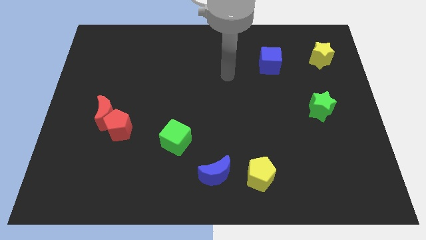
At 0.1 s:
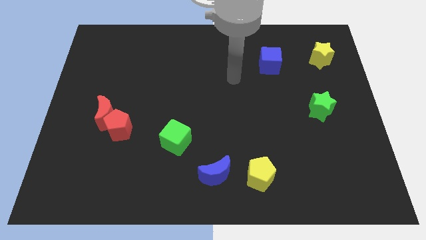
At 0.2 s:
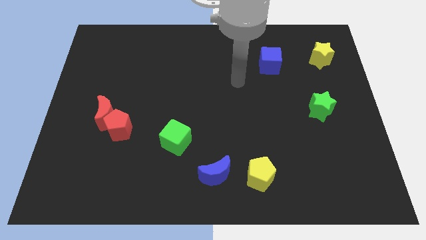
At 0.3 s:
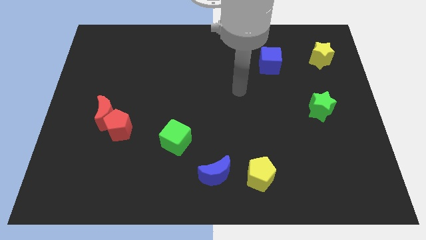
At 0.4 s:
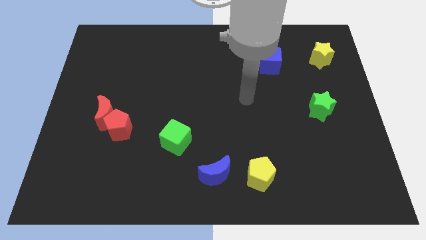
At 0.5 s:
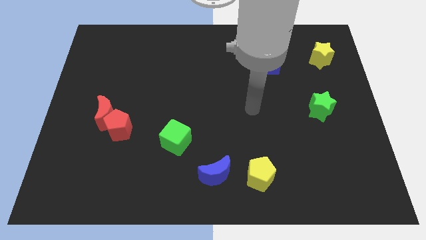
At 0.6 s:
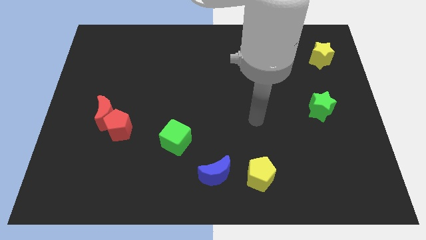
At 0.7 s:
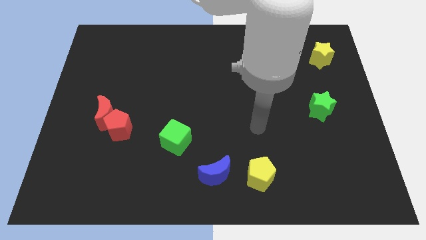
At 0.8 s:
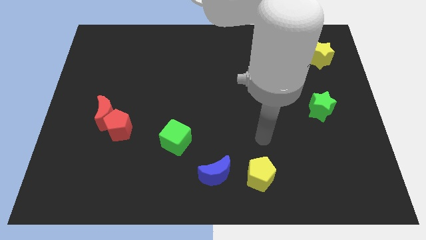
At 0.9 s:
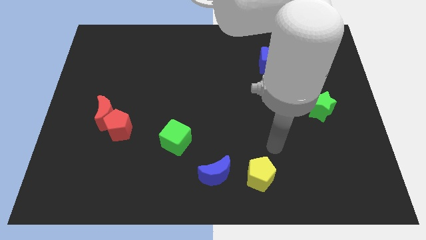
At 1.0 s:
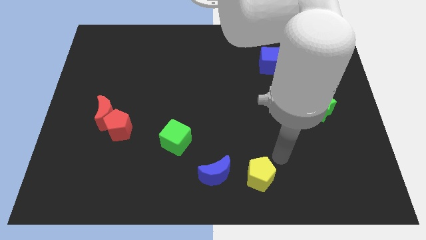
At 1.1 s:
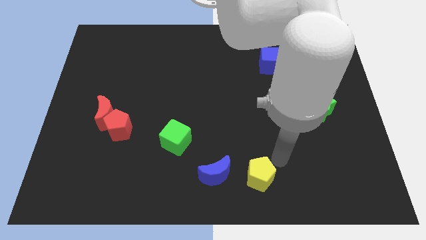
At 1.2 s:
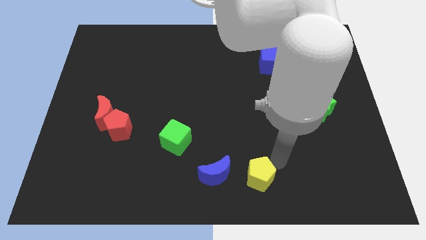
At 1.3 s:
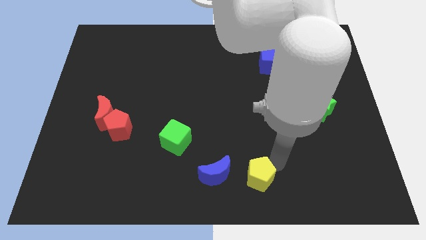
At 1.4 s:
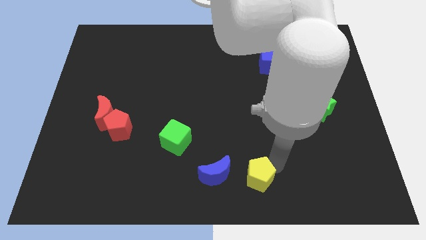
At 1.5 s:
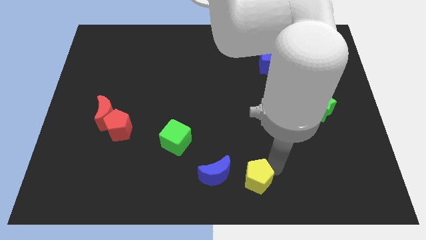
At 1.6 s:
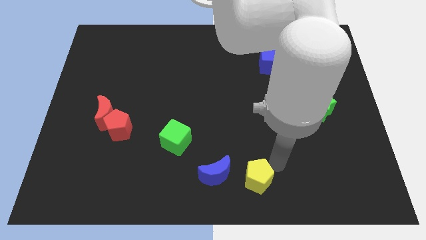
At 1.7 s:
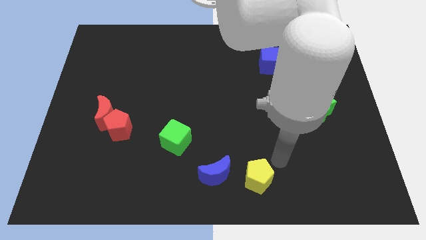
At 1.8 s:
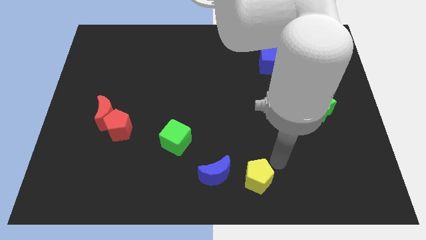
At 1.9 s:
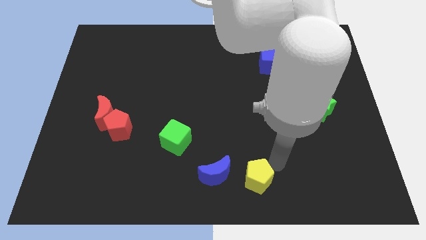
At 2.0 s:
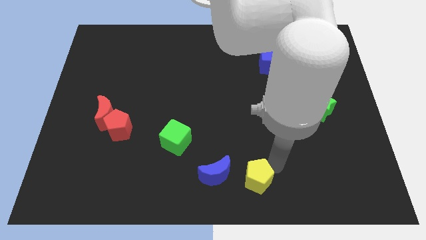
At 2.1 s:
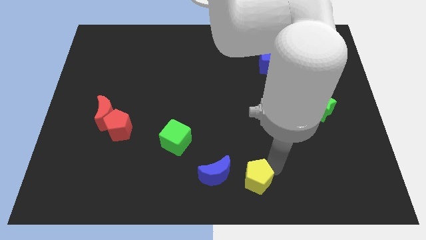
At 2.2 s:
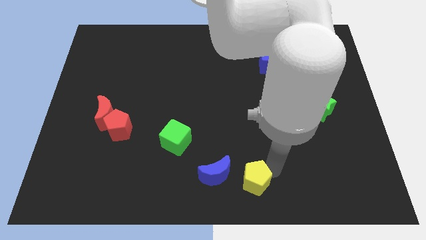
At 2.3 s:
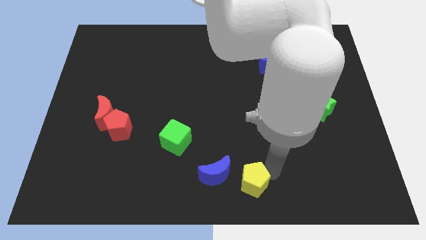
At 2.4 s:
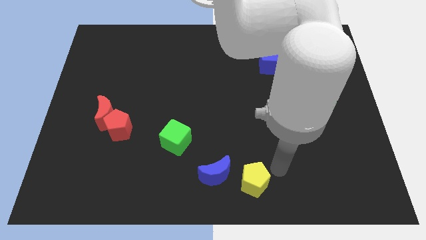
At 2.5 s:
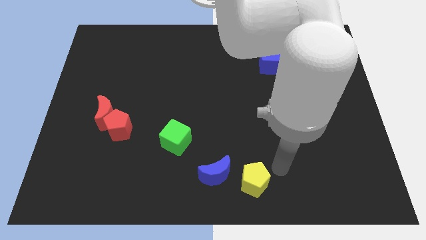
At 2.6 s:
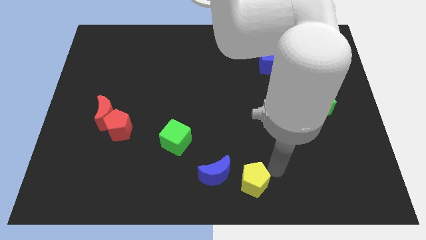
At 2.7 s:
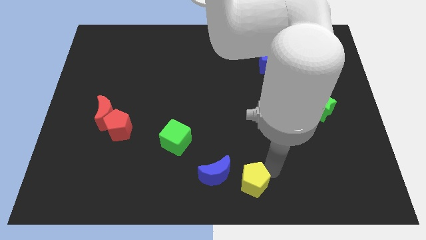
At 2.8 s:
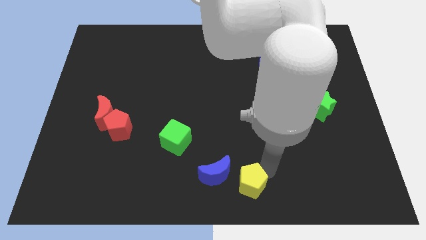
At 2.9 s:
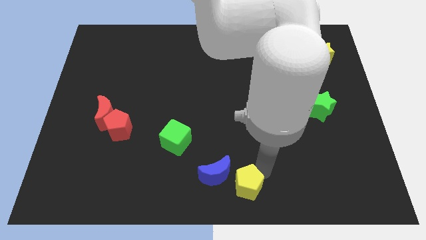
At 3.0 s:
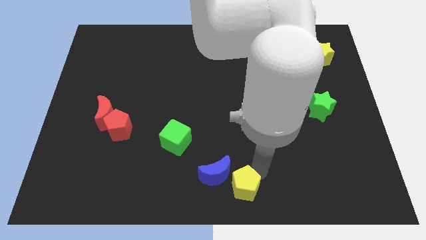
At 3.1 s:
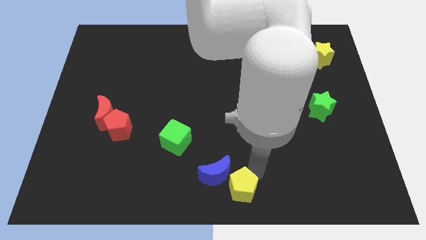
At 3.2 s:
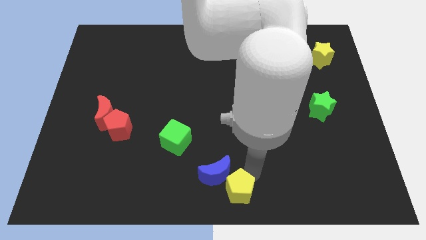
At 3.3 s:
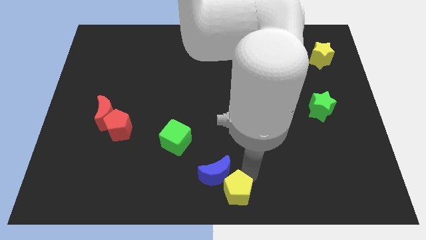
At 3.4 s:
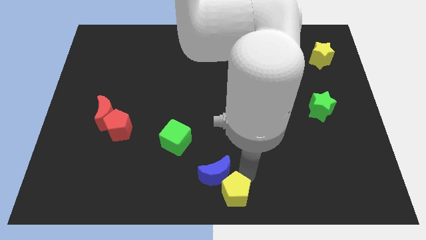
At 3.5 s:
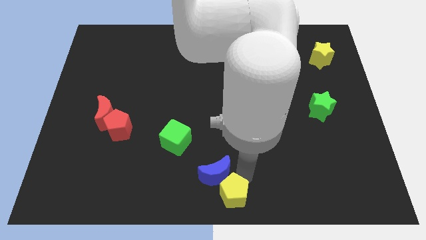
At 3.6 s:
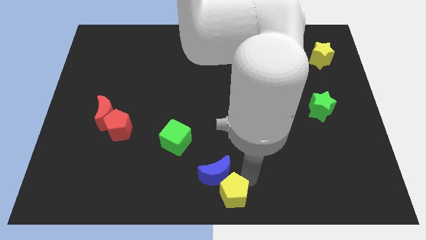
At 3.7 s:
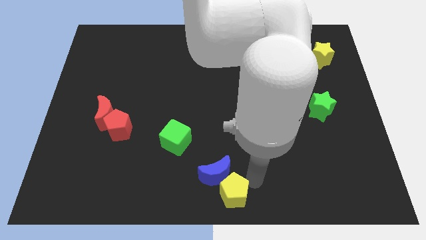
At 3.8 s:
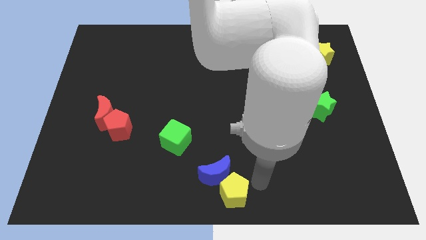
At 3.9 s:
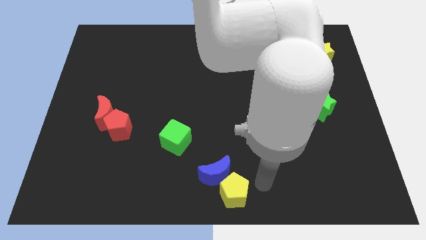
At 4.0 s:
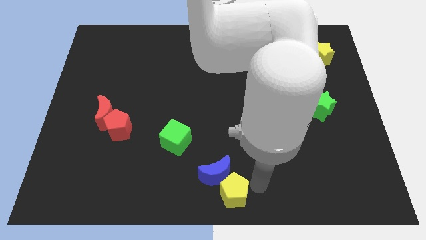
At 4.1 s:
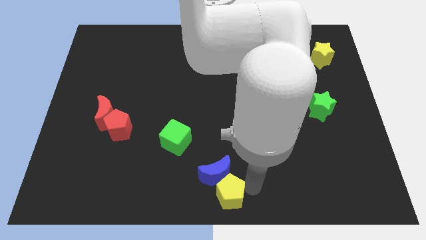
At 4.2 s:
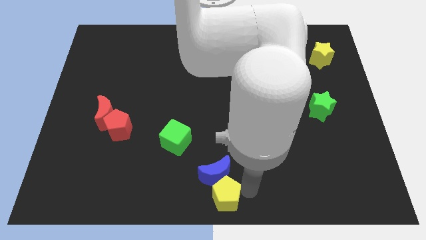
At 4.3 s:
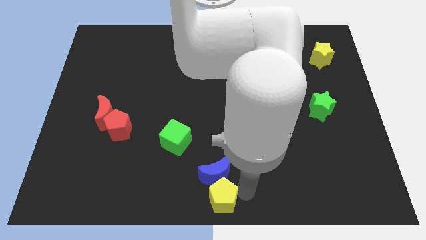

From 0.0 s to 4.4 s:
slightly slide the yellow pentagon left

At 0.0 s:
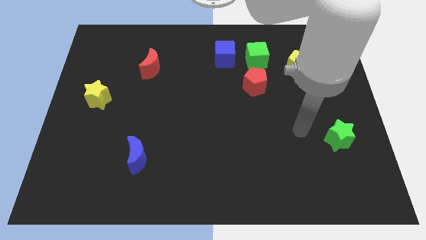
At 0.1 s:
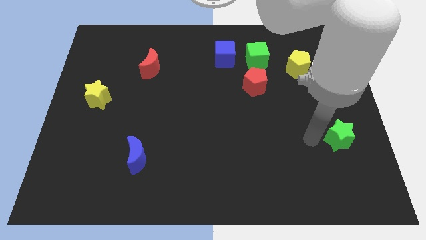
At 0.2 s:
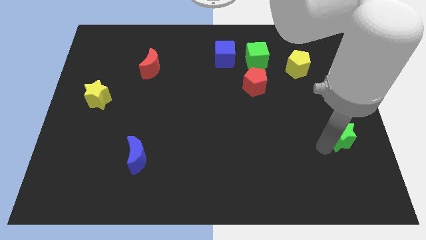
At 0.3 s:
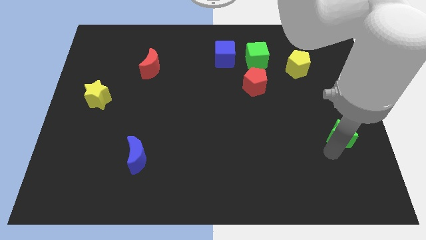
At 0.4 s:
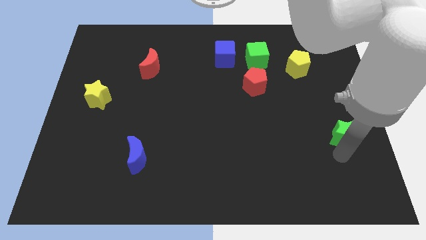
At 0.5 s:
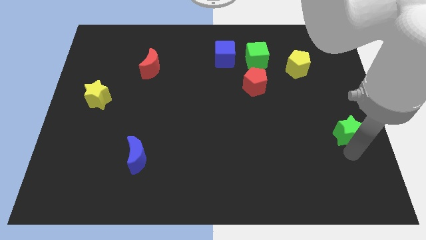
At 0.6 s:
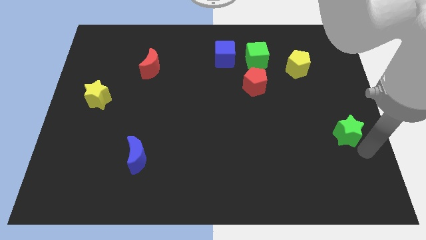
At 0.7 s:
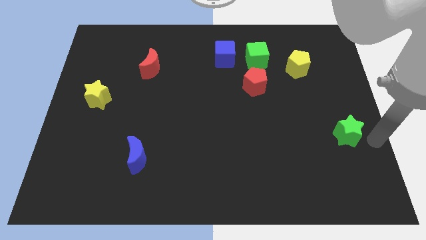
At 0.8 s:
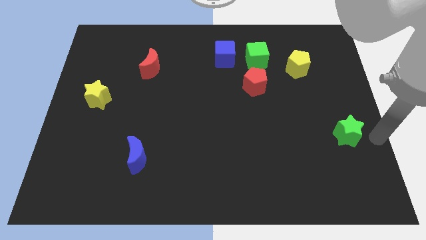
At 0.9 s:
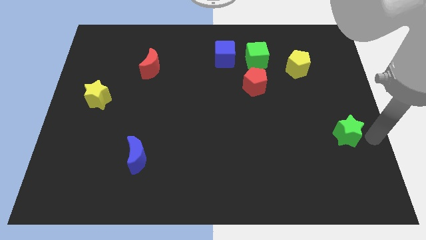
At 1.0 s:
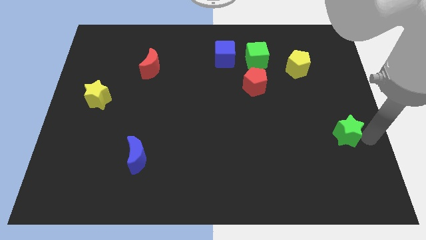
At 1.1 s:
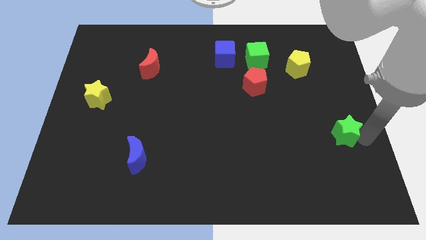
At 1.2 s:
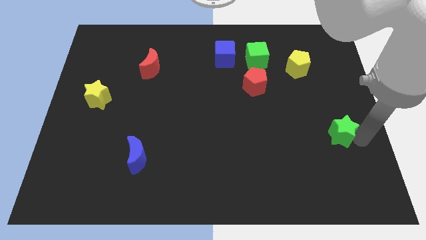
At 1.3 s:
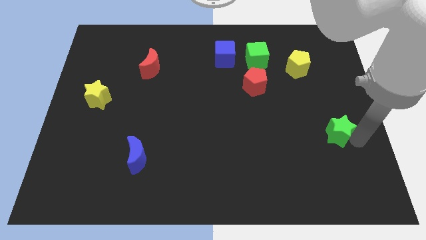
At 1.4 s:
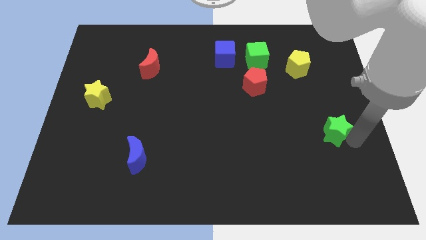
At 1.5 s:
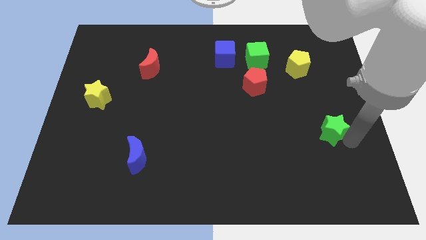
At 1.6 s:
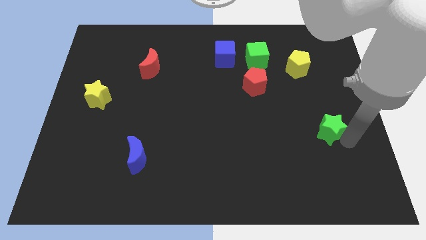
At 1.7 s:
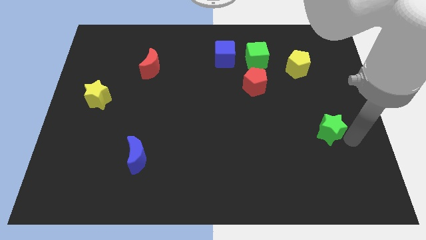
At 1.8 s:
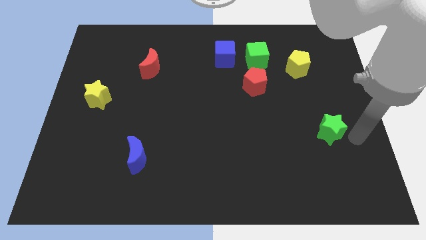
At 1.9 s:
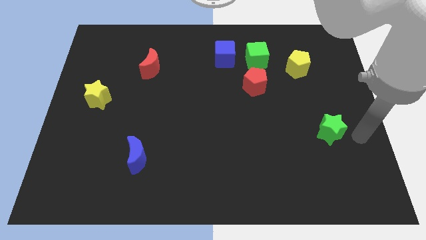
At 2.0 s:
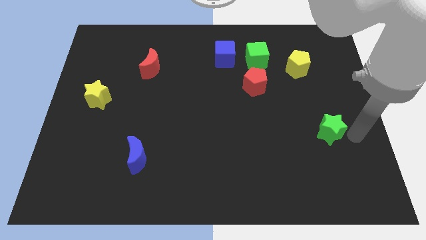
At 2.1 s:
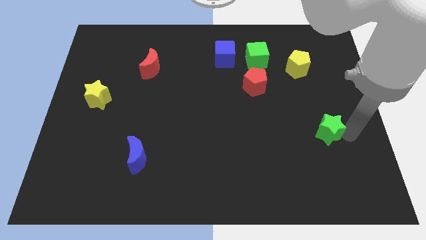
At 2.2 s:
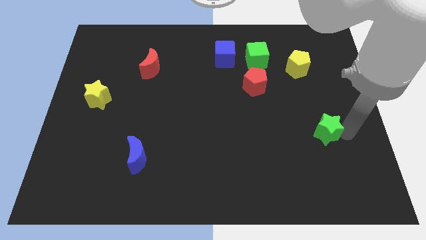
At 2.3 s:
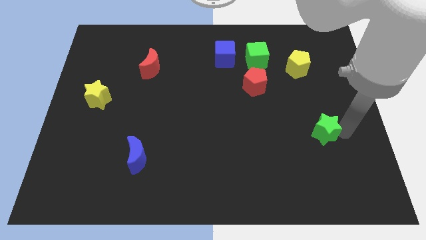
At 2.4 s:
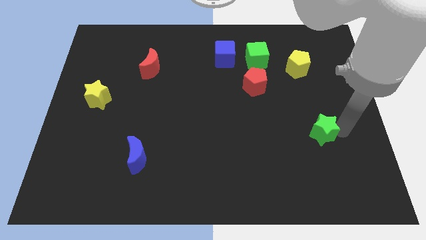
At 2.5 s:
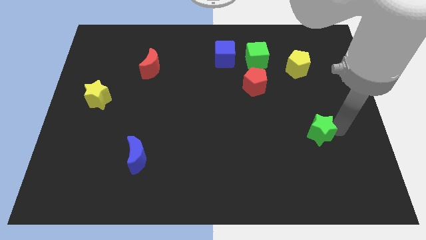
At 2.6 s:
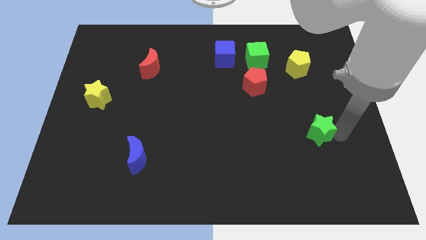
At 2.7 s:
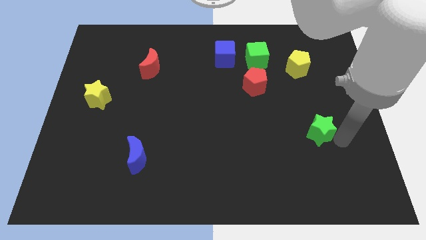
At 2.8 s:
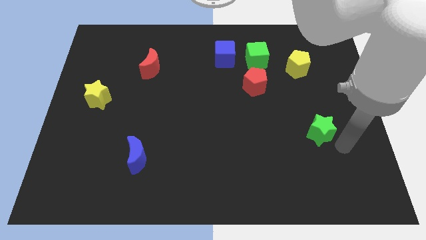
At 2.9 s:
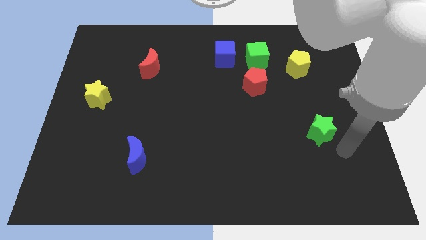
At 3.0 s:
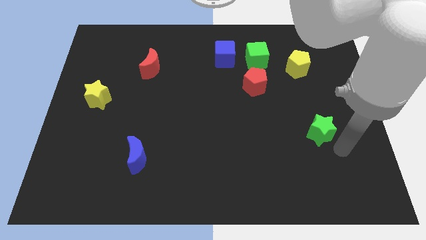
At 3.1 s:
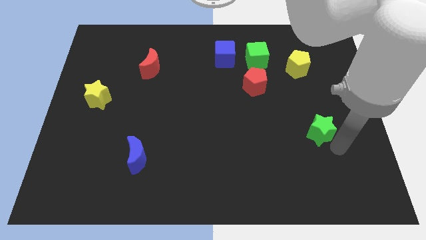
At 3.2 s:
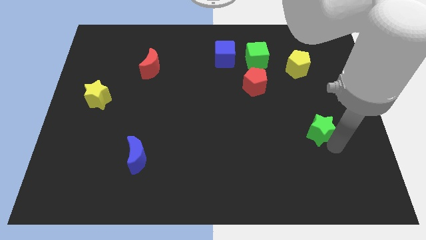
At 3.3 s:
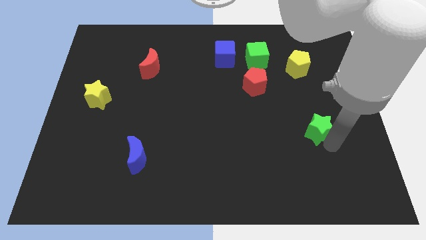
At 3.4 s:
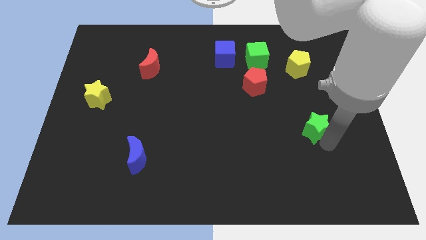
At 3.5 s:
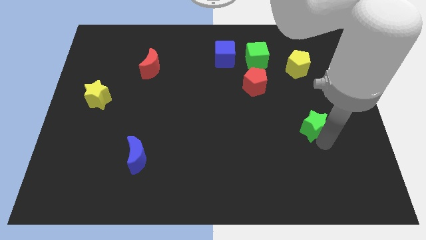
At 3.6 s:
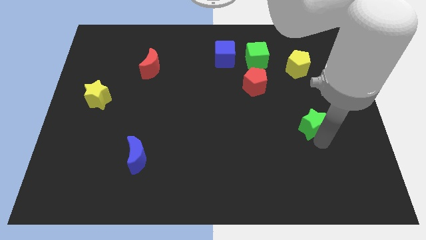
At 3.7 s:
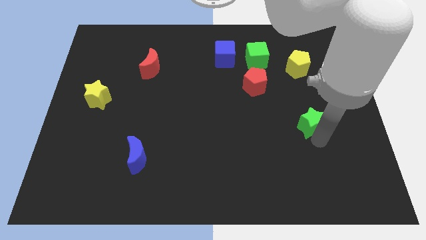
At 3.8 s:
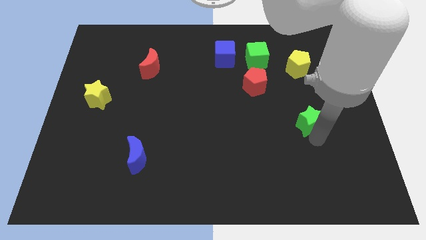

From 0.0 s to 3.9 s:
move the green star a bit diagonally upwards and to the left
